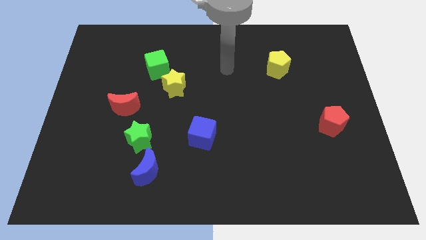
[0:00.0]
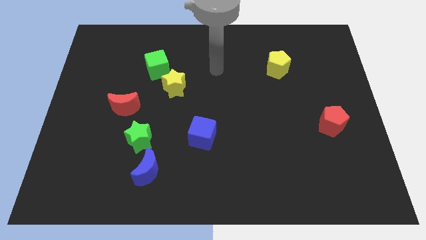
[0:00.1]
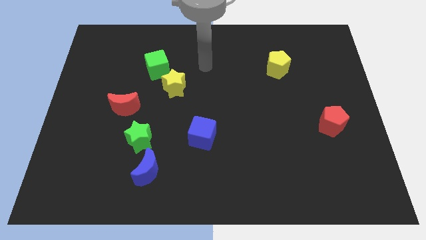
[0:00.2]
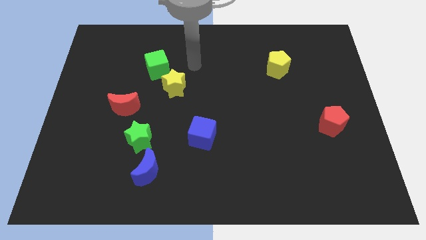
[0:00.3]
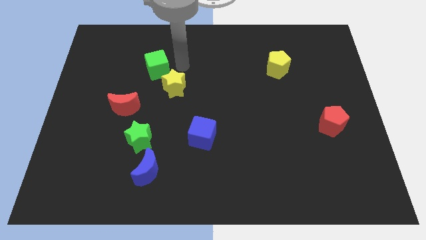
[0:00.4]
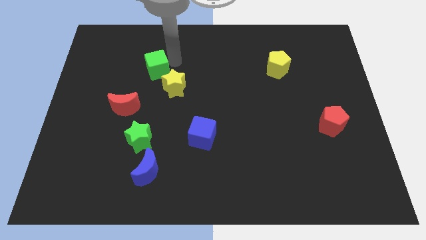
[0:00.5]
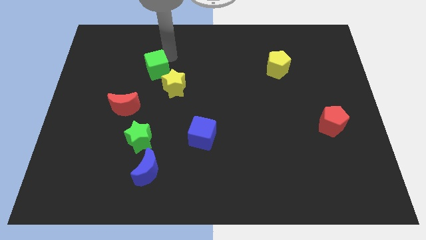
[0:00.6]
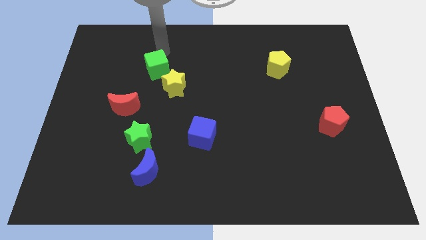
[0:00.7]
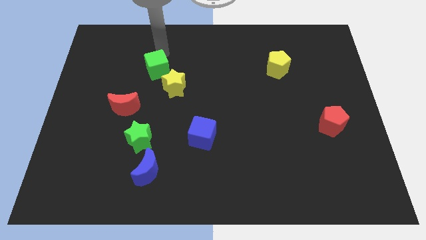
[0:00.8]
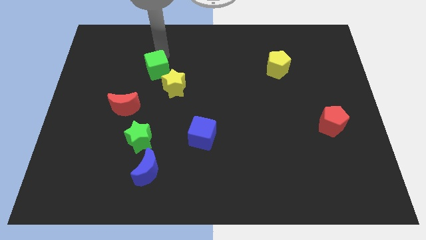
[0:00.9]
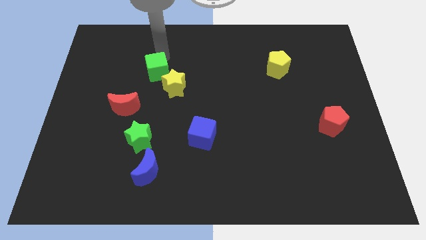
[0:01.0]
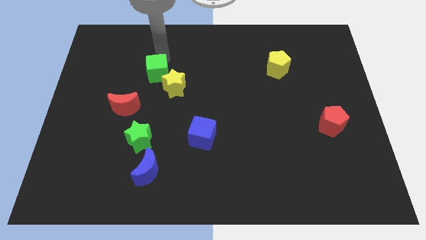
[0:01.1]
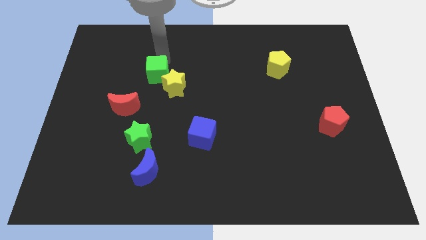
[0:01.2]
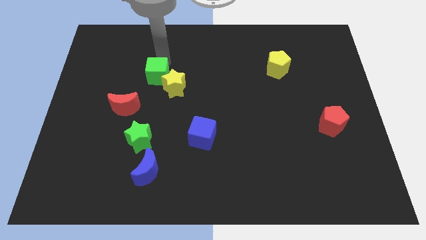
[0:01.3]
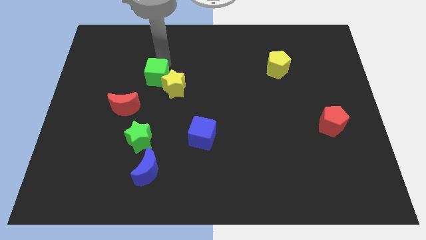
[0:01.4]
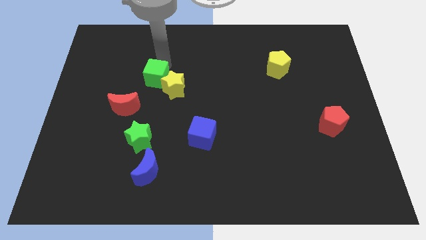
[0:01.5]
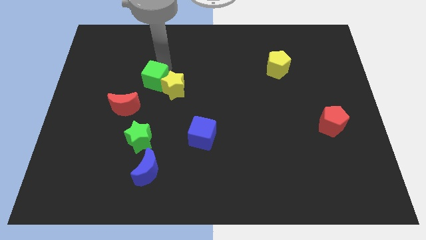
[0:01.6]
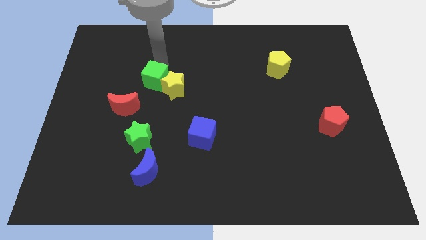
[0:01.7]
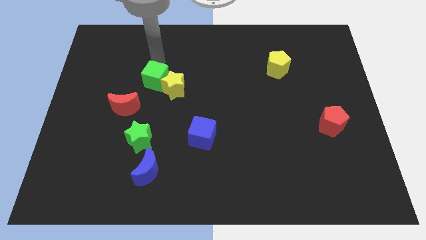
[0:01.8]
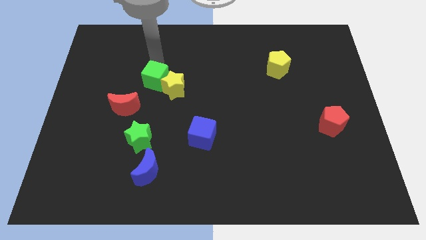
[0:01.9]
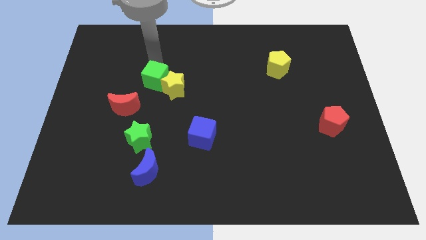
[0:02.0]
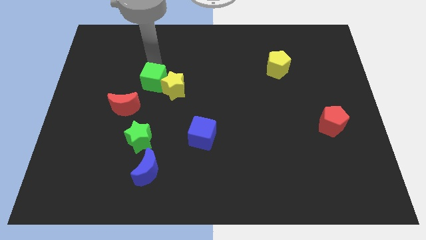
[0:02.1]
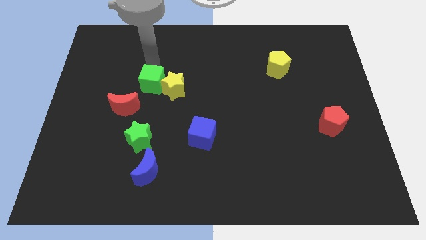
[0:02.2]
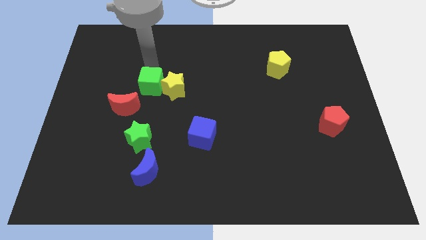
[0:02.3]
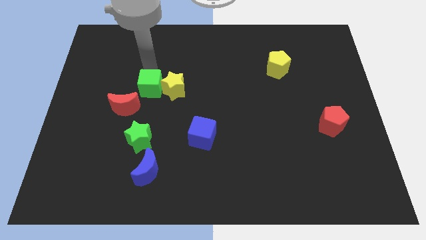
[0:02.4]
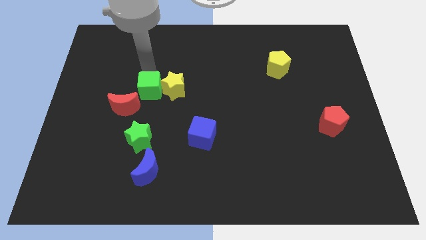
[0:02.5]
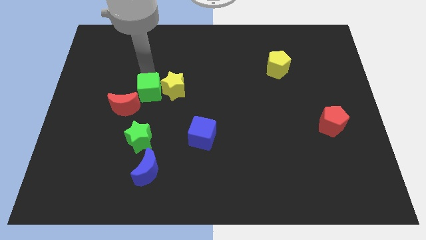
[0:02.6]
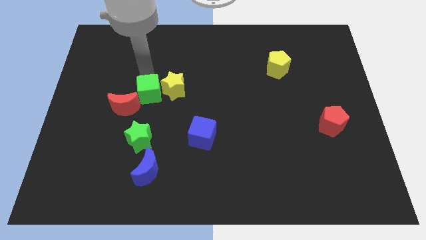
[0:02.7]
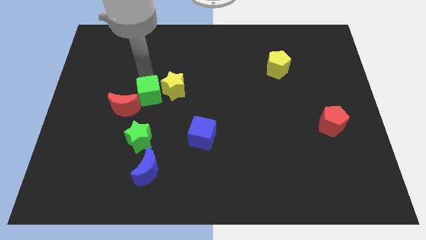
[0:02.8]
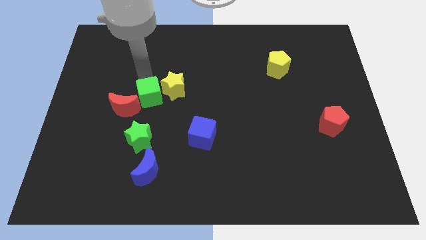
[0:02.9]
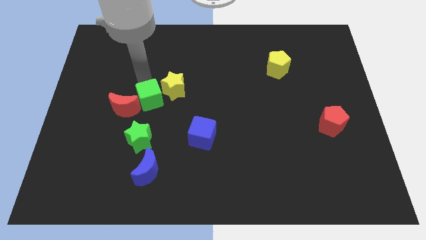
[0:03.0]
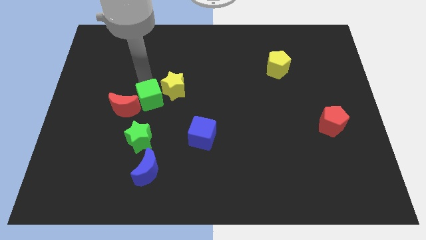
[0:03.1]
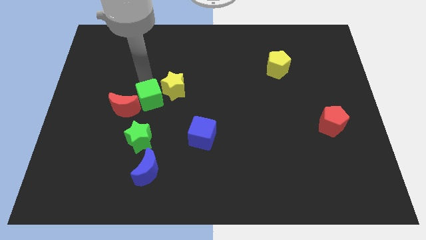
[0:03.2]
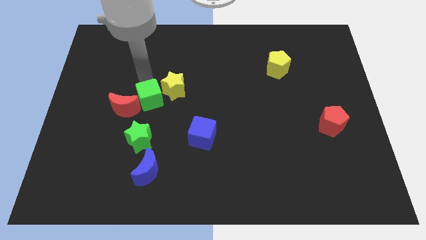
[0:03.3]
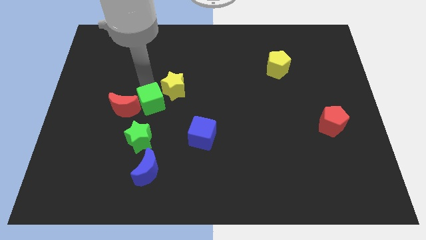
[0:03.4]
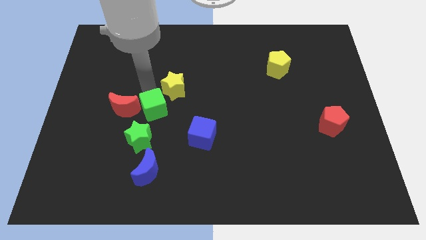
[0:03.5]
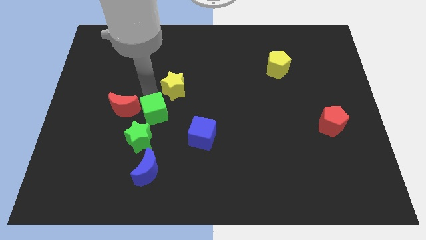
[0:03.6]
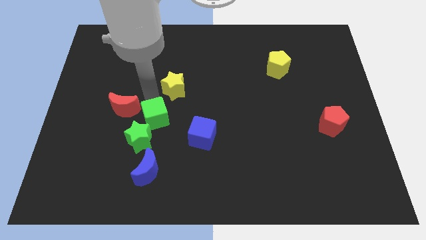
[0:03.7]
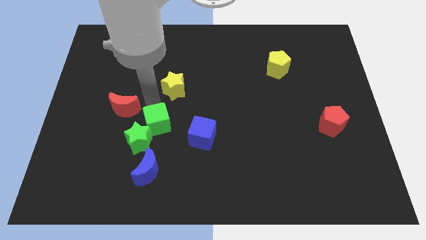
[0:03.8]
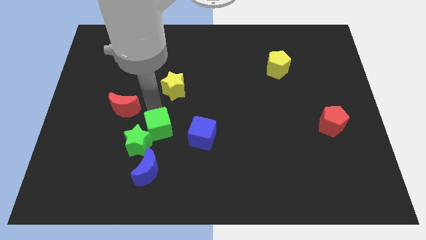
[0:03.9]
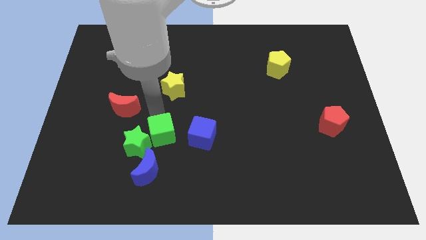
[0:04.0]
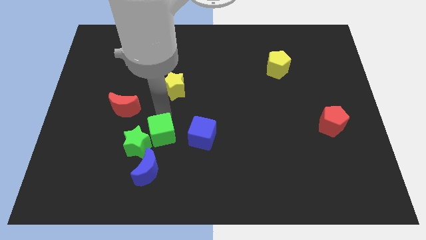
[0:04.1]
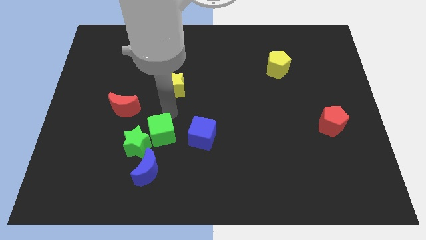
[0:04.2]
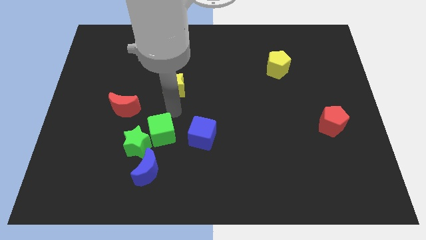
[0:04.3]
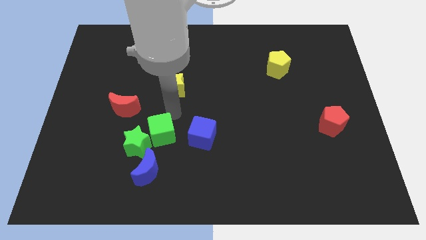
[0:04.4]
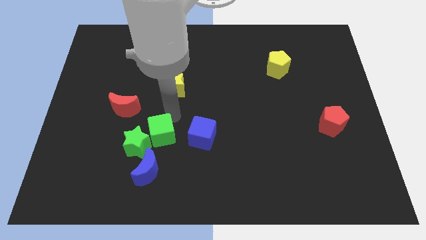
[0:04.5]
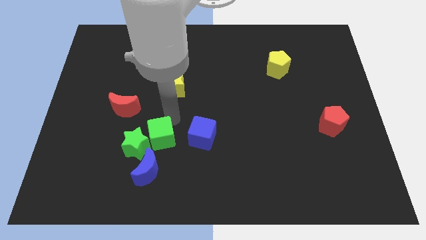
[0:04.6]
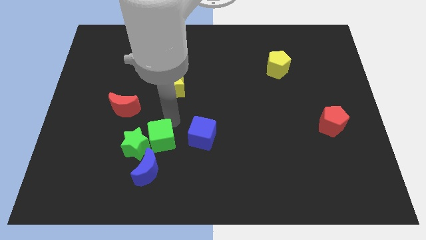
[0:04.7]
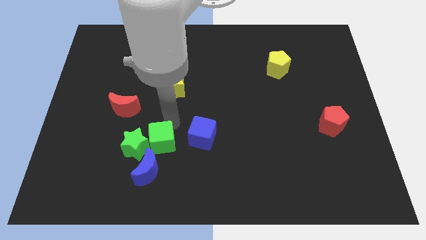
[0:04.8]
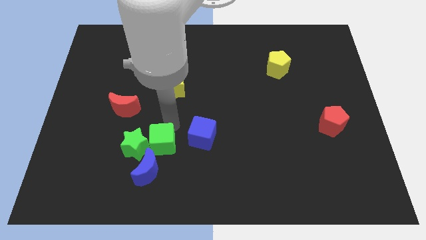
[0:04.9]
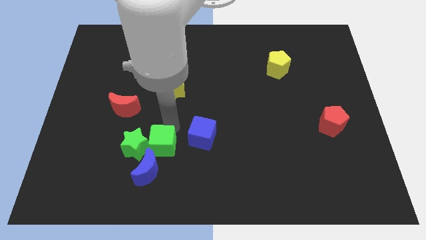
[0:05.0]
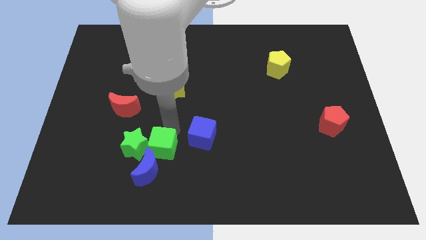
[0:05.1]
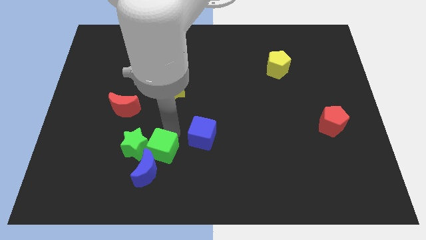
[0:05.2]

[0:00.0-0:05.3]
move the green cube to the blue moon

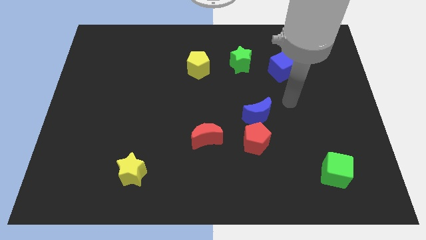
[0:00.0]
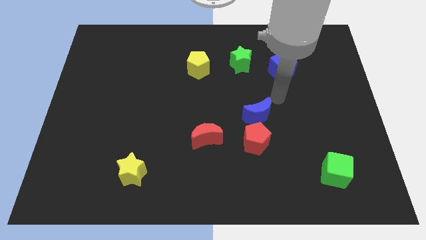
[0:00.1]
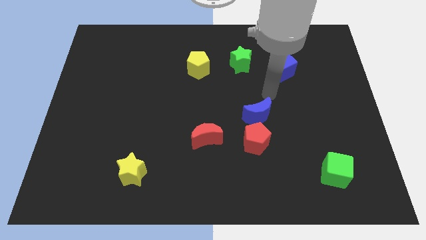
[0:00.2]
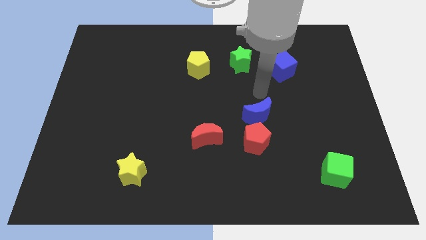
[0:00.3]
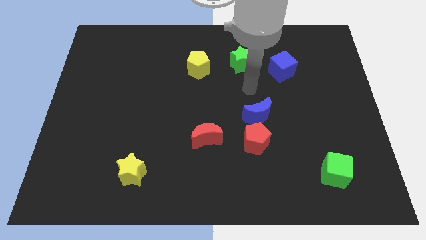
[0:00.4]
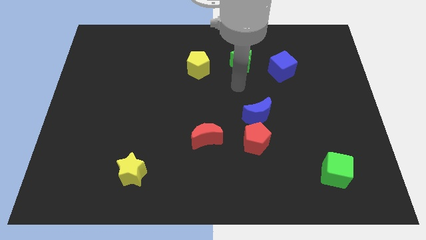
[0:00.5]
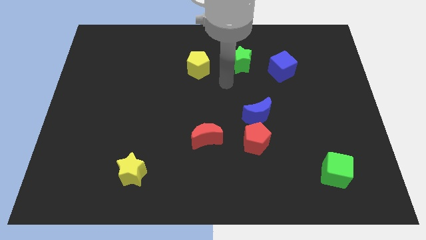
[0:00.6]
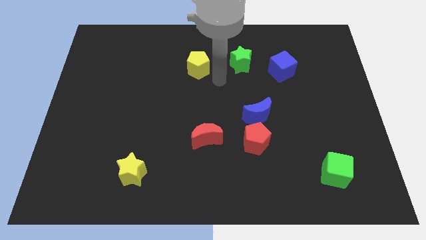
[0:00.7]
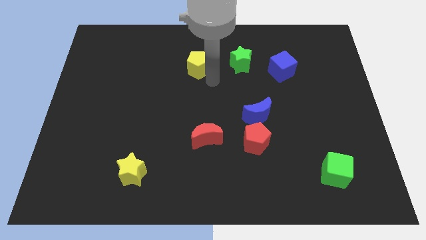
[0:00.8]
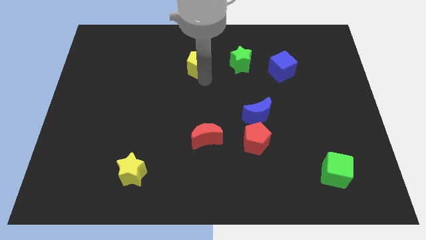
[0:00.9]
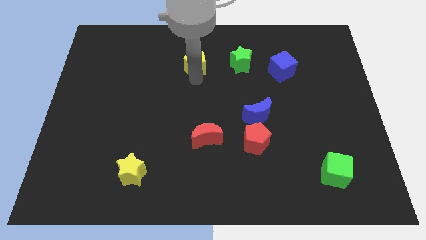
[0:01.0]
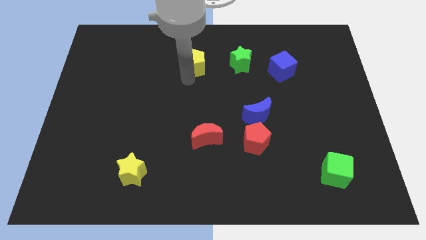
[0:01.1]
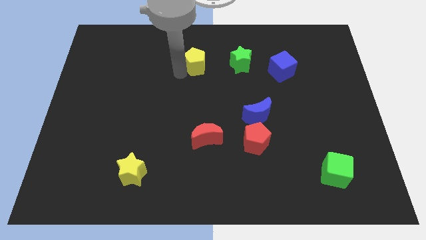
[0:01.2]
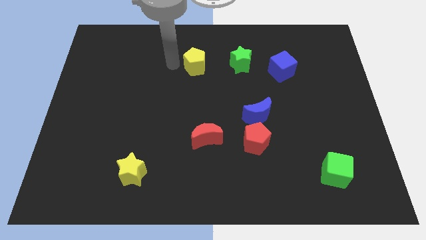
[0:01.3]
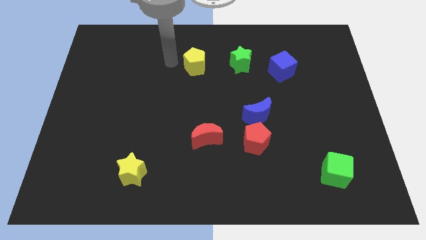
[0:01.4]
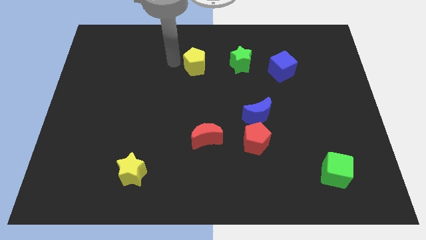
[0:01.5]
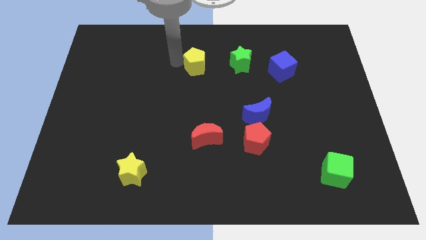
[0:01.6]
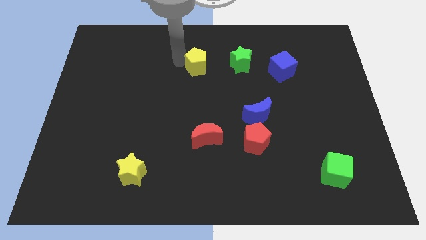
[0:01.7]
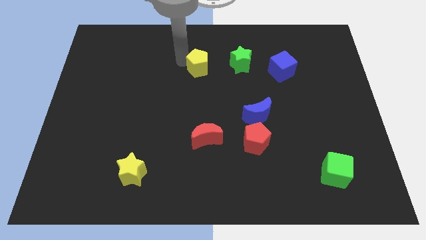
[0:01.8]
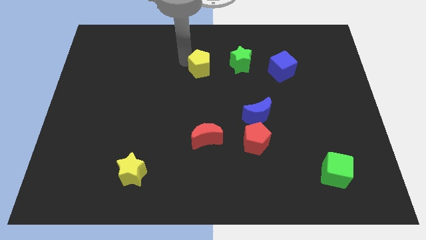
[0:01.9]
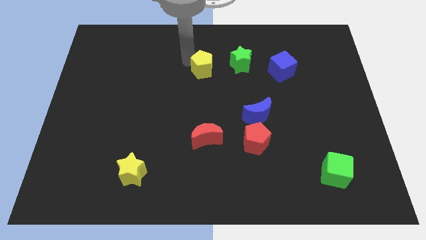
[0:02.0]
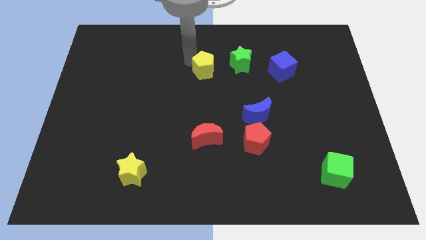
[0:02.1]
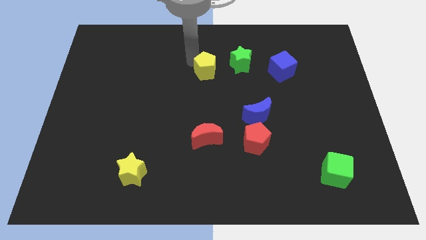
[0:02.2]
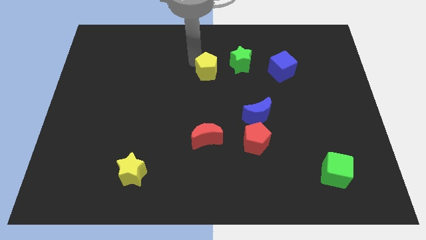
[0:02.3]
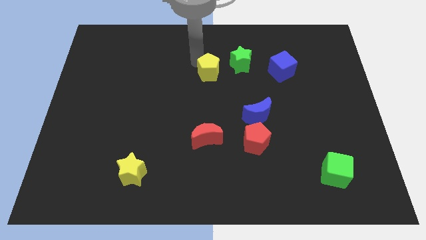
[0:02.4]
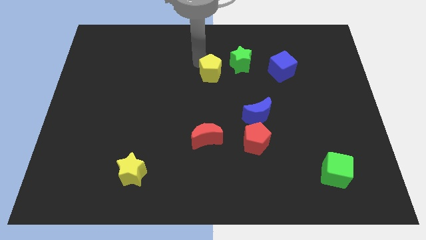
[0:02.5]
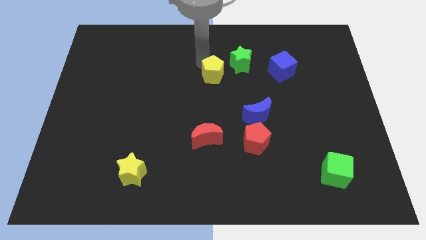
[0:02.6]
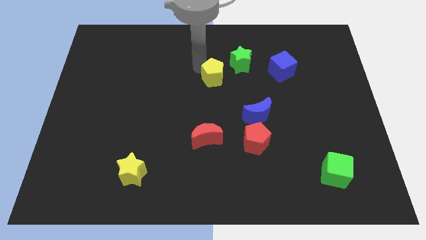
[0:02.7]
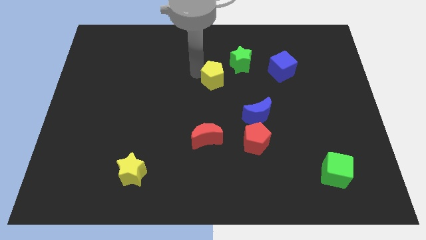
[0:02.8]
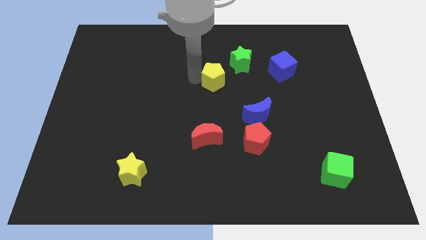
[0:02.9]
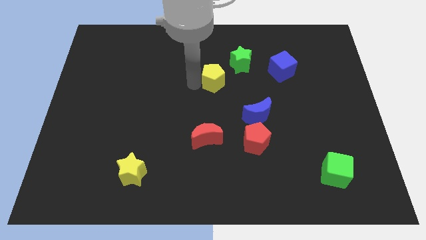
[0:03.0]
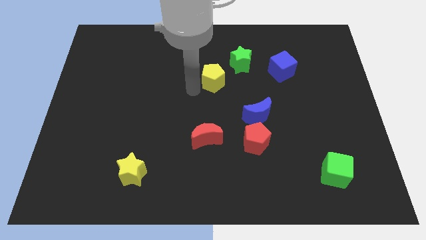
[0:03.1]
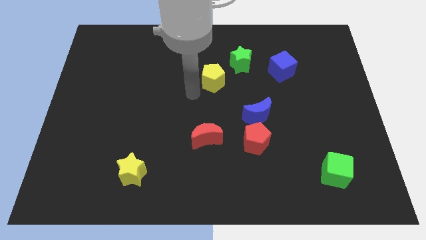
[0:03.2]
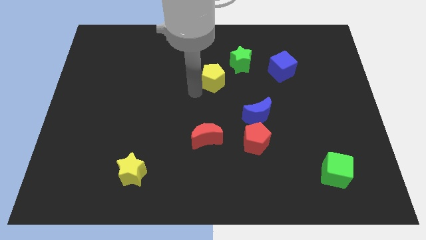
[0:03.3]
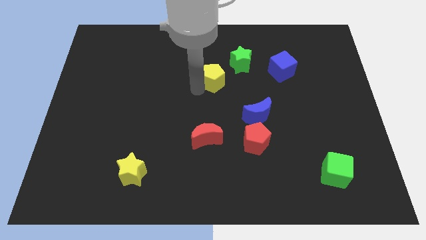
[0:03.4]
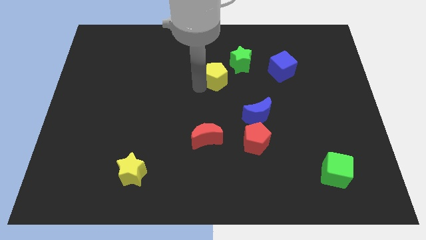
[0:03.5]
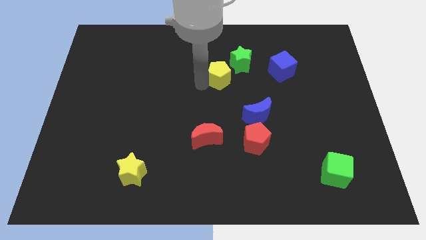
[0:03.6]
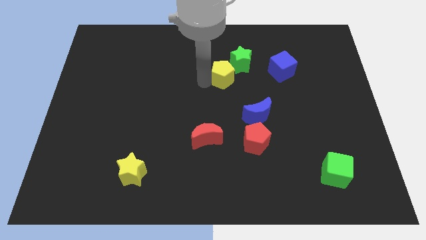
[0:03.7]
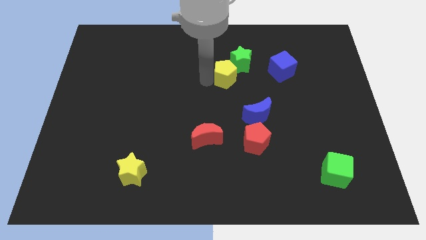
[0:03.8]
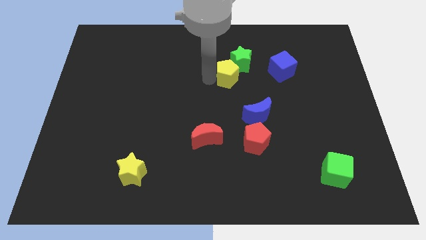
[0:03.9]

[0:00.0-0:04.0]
move the yellow pentagon close to the green star
